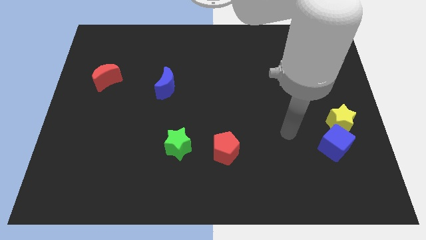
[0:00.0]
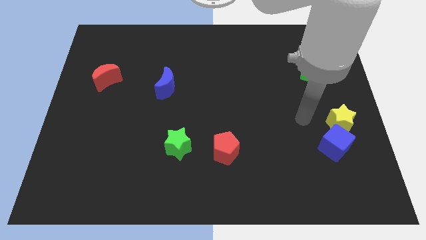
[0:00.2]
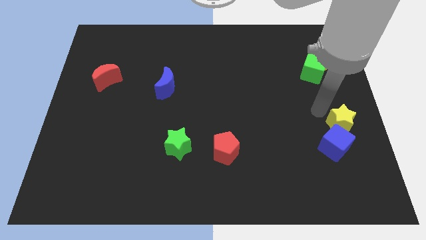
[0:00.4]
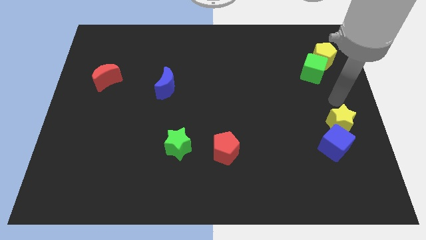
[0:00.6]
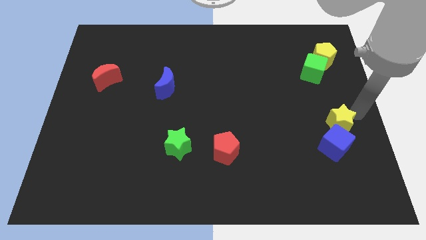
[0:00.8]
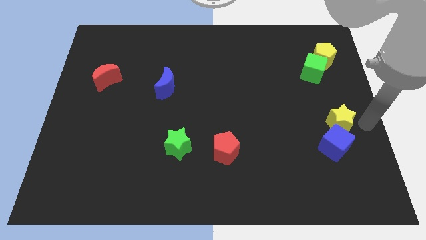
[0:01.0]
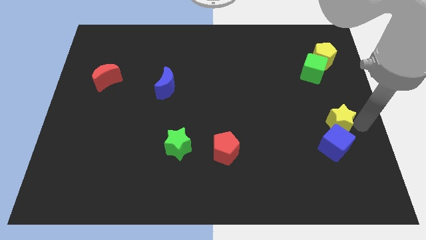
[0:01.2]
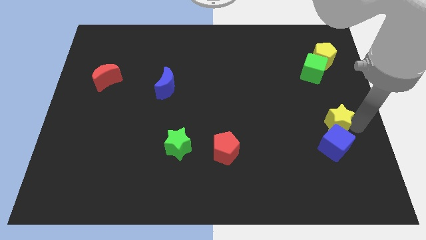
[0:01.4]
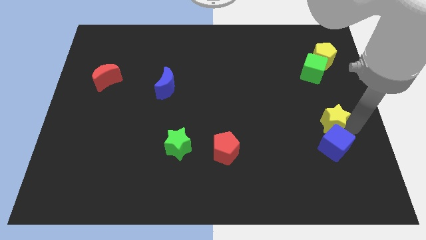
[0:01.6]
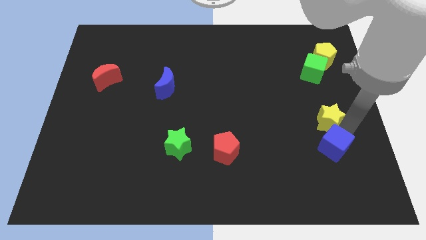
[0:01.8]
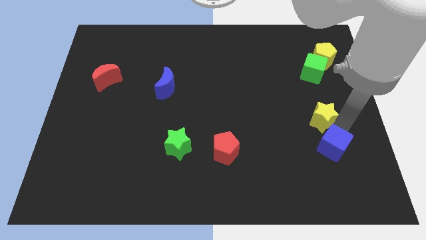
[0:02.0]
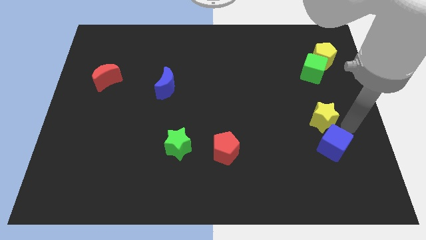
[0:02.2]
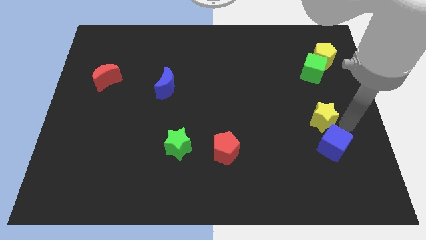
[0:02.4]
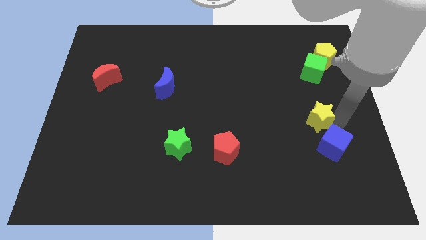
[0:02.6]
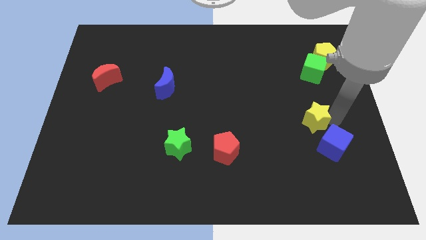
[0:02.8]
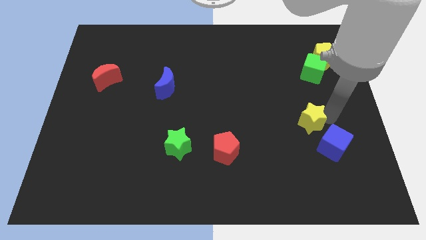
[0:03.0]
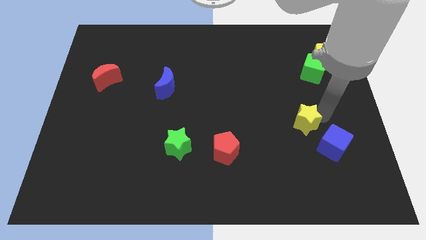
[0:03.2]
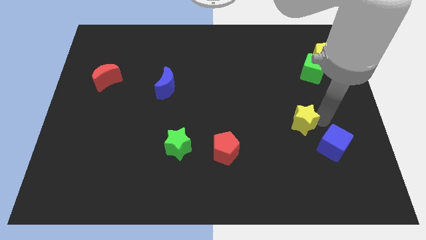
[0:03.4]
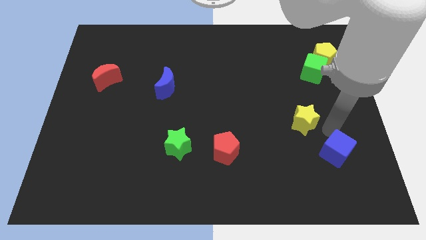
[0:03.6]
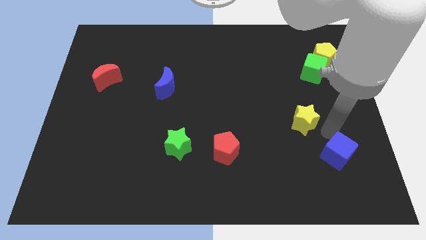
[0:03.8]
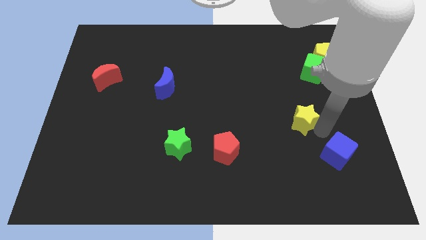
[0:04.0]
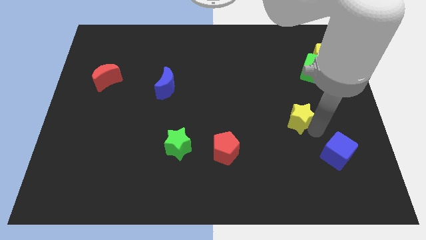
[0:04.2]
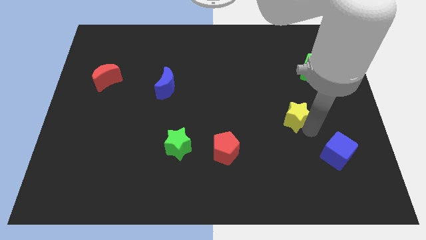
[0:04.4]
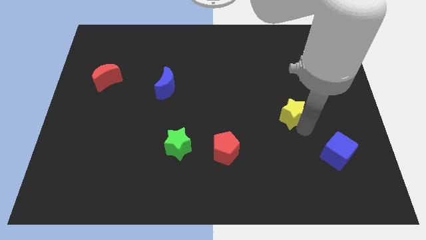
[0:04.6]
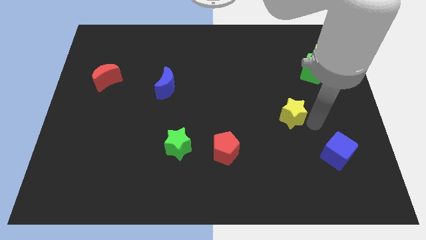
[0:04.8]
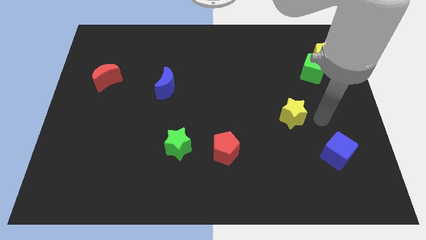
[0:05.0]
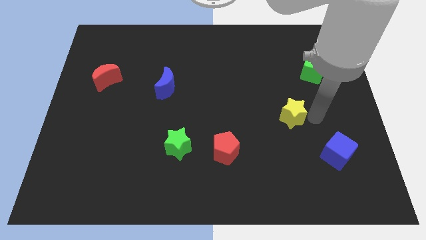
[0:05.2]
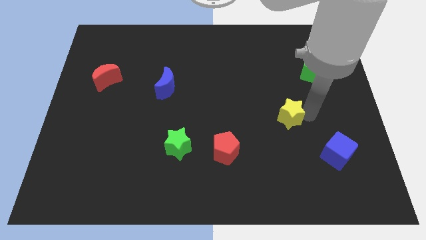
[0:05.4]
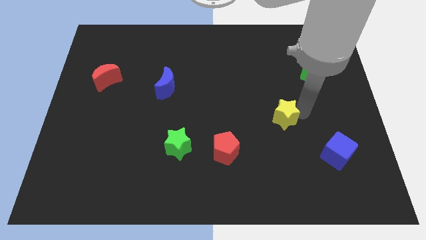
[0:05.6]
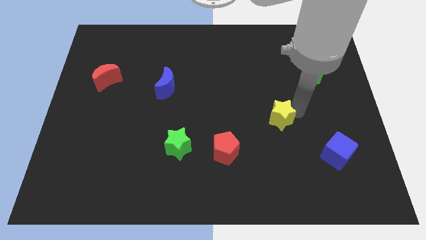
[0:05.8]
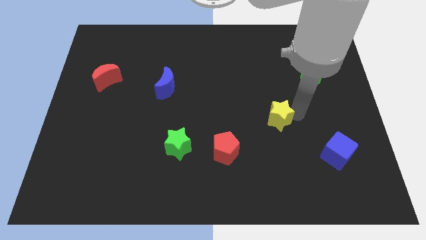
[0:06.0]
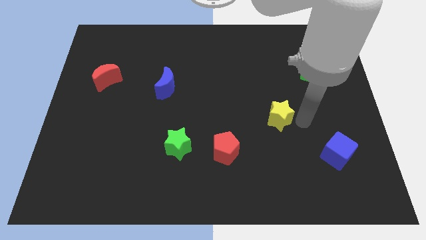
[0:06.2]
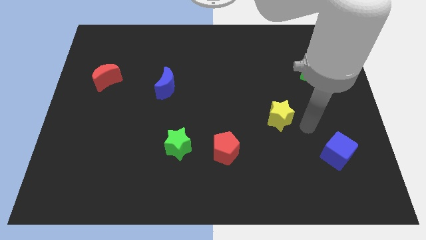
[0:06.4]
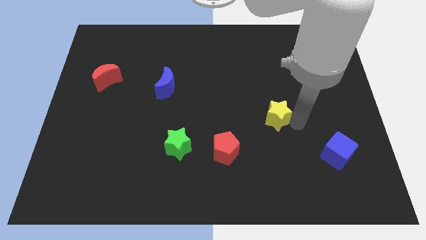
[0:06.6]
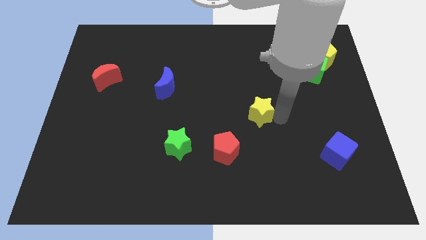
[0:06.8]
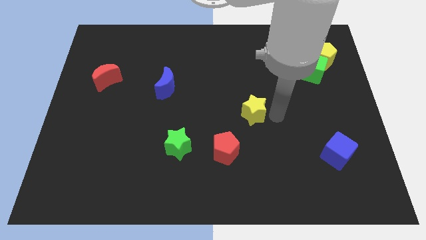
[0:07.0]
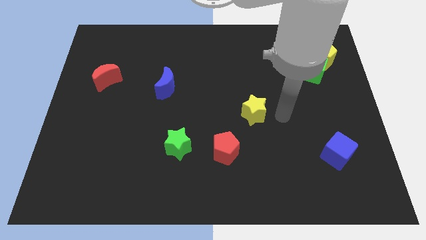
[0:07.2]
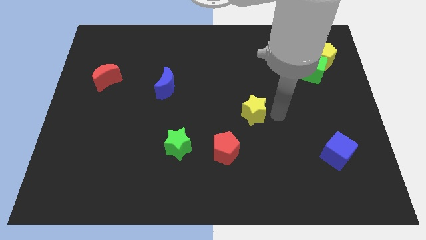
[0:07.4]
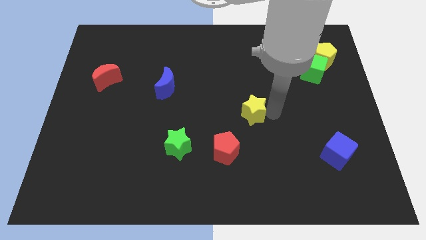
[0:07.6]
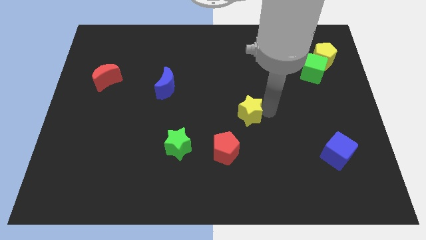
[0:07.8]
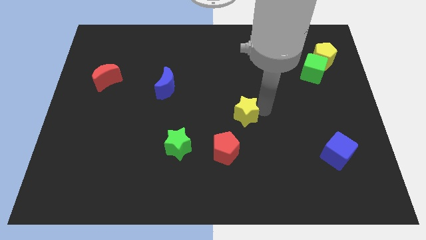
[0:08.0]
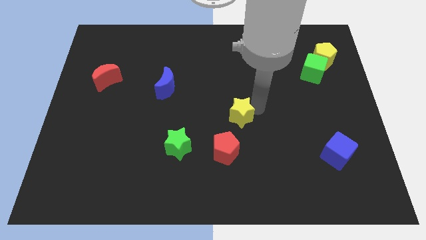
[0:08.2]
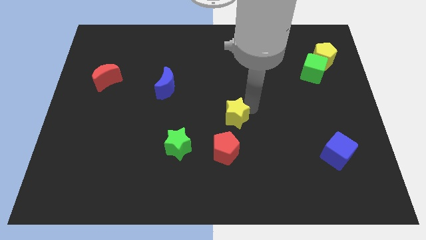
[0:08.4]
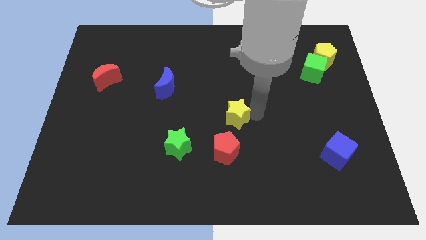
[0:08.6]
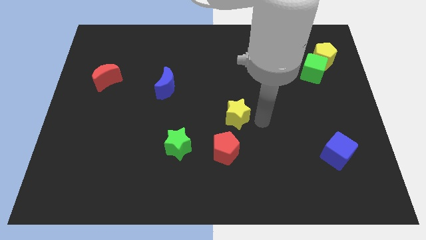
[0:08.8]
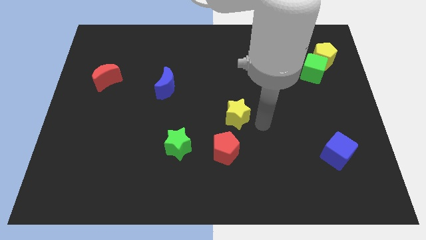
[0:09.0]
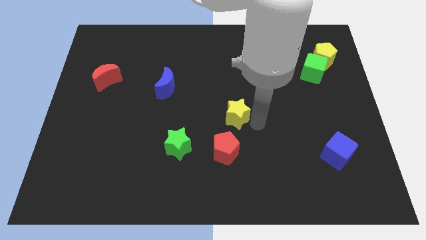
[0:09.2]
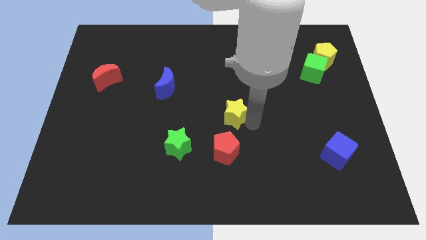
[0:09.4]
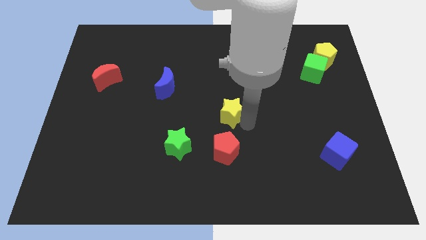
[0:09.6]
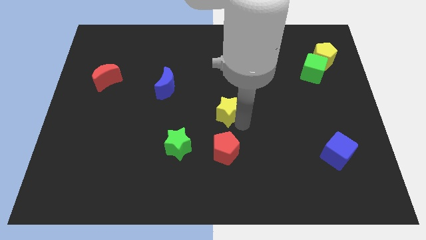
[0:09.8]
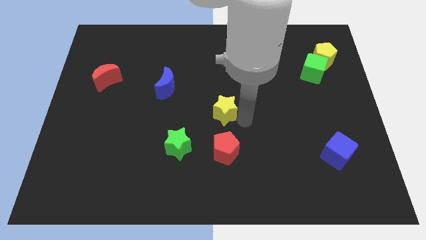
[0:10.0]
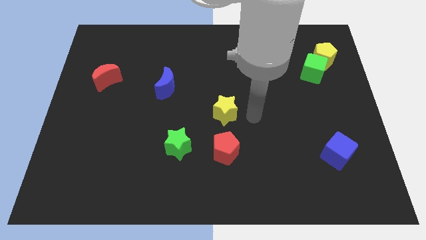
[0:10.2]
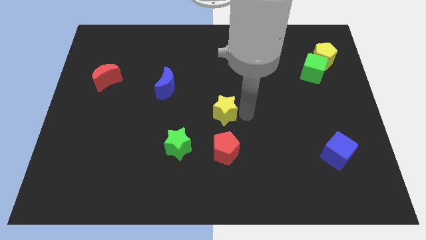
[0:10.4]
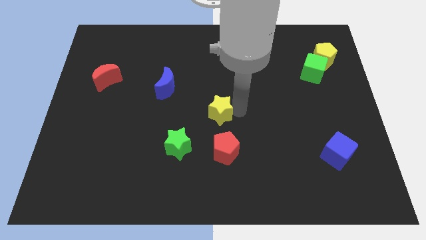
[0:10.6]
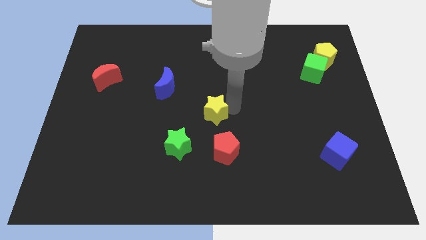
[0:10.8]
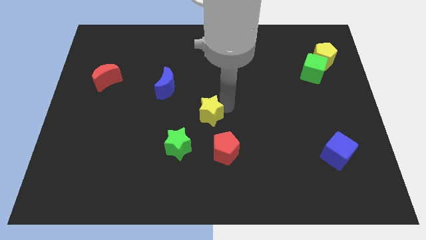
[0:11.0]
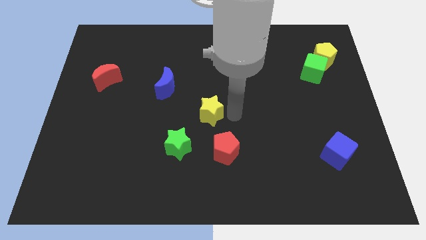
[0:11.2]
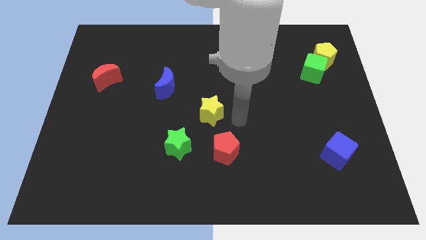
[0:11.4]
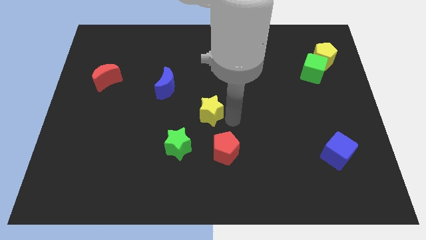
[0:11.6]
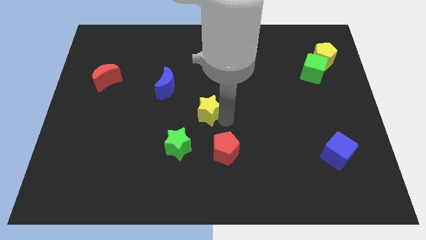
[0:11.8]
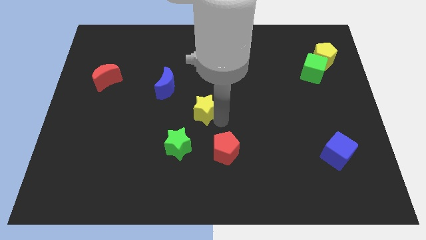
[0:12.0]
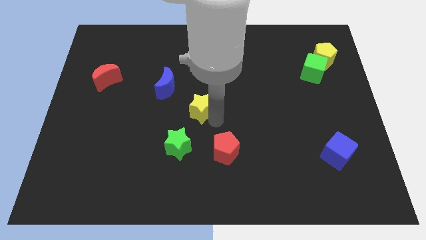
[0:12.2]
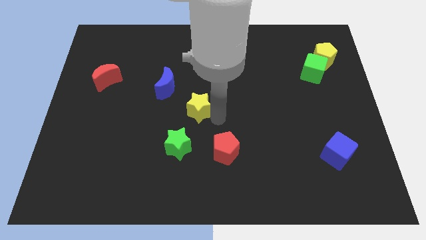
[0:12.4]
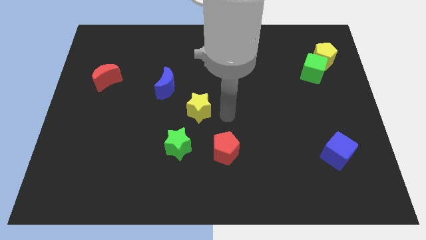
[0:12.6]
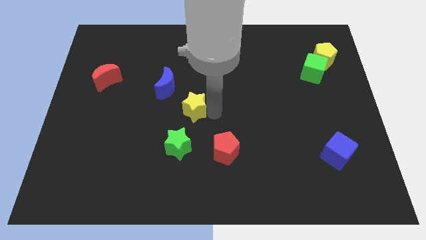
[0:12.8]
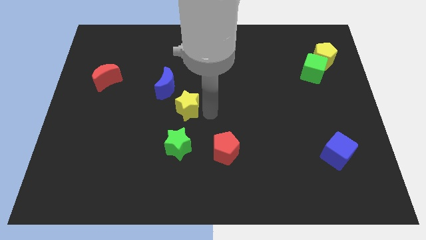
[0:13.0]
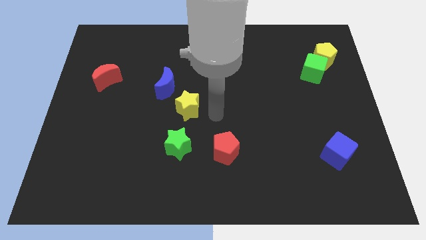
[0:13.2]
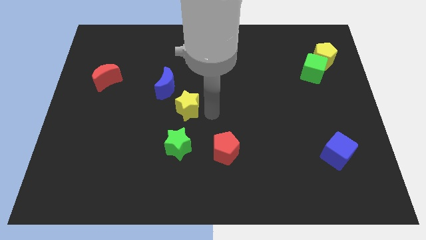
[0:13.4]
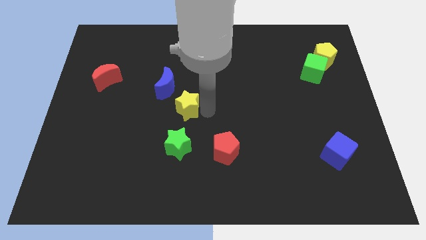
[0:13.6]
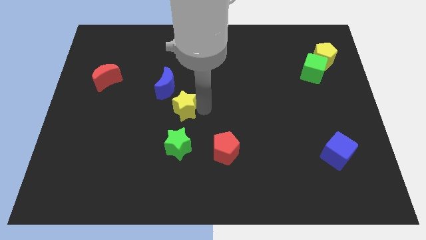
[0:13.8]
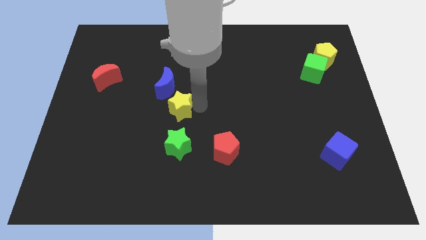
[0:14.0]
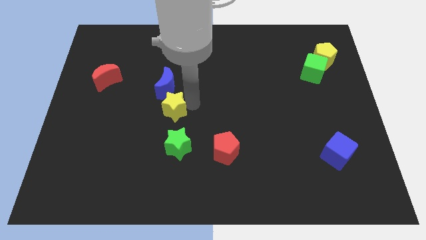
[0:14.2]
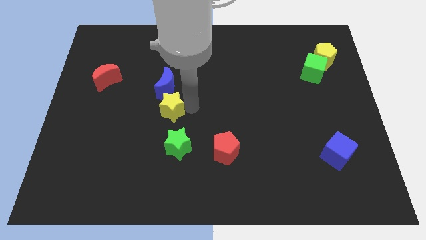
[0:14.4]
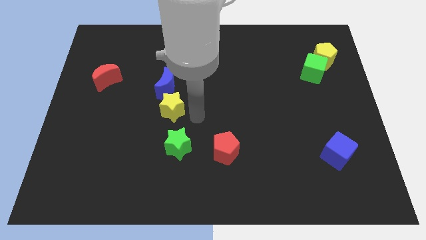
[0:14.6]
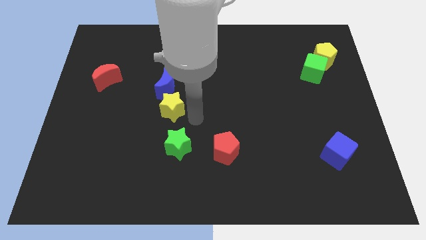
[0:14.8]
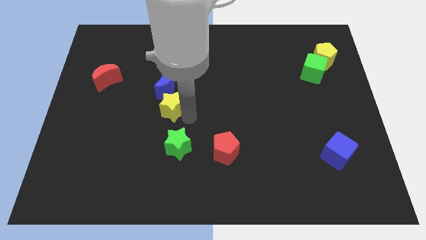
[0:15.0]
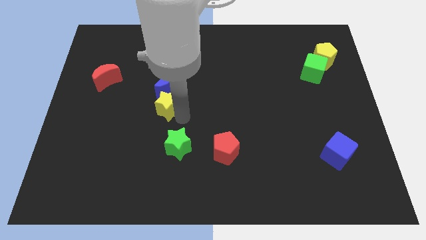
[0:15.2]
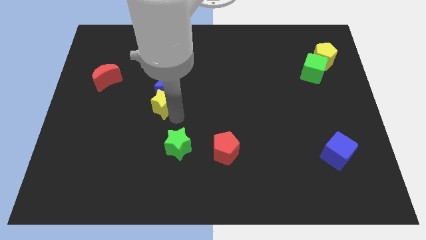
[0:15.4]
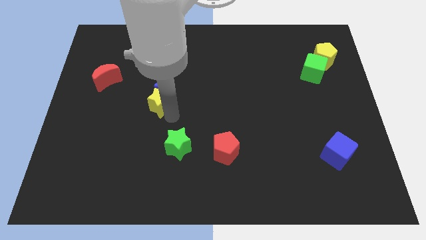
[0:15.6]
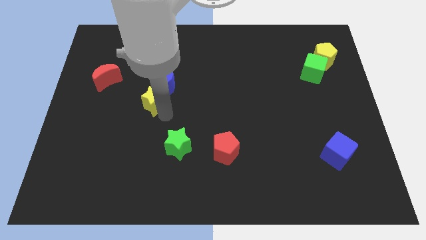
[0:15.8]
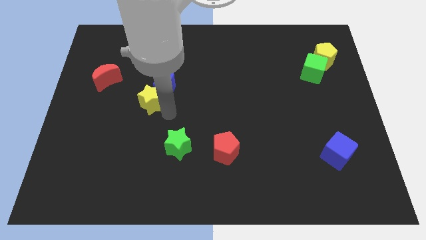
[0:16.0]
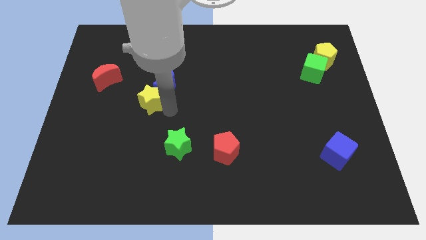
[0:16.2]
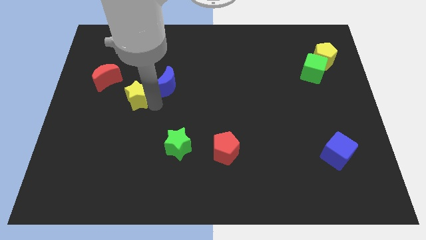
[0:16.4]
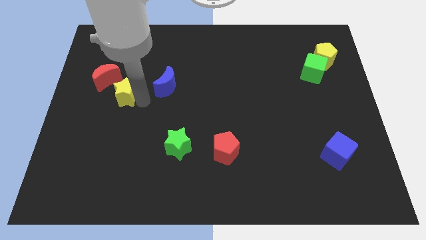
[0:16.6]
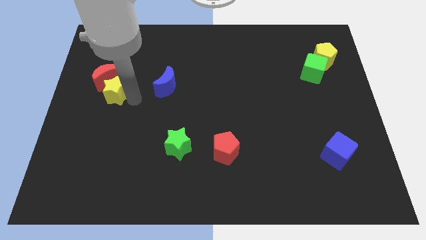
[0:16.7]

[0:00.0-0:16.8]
move the yellow star next to the red moon
